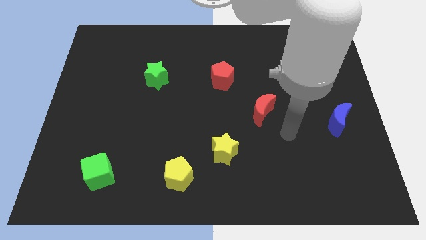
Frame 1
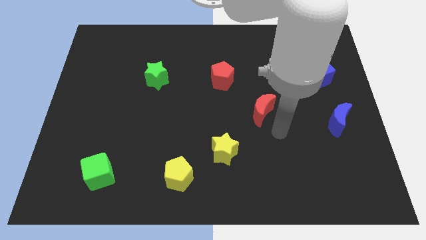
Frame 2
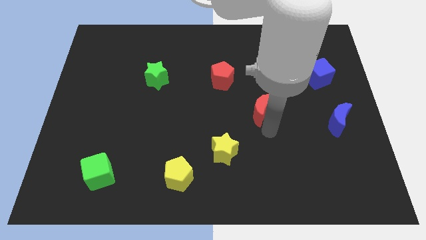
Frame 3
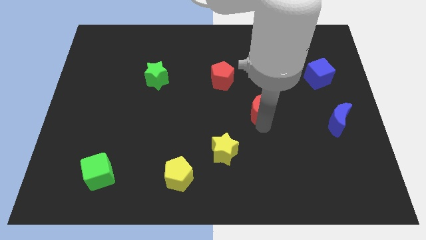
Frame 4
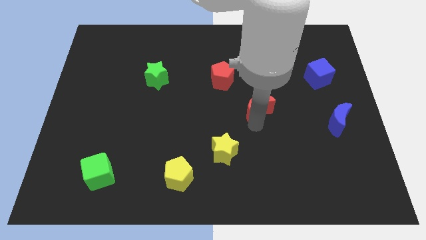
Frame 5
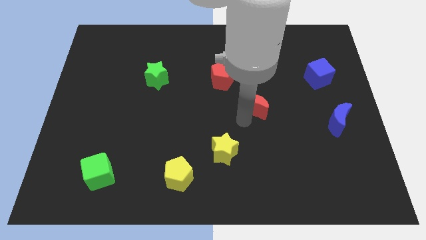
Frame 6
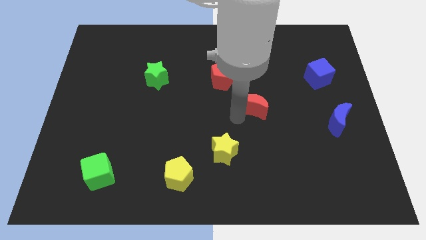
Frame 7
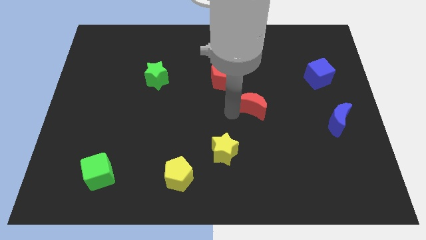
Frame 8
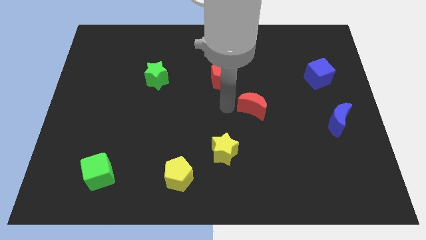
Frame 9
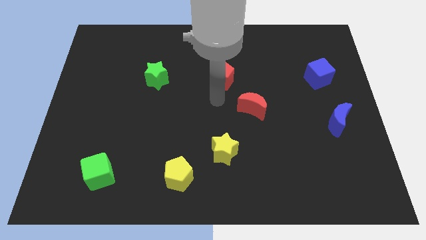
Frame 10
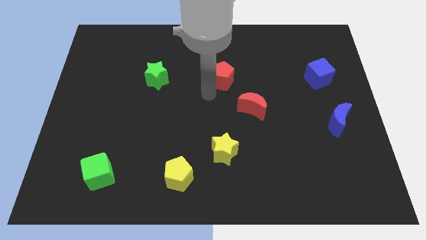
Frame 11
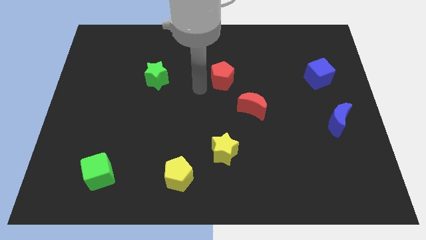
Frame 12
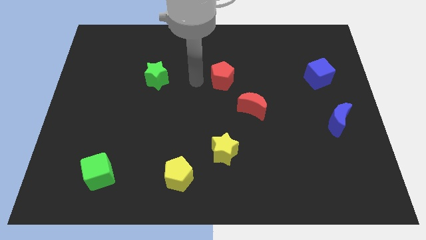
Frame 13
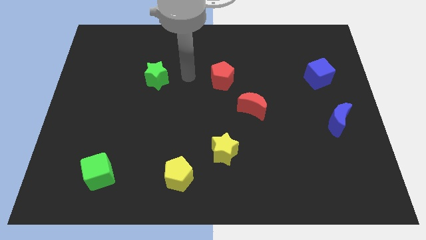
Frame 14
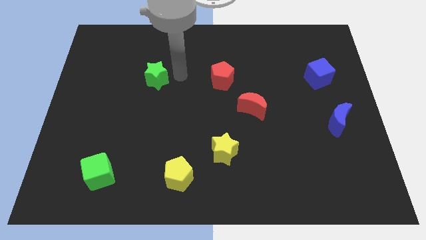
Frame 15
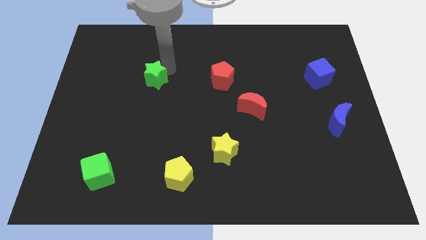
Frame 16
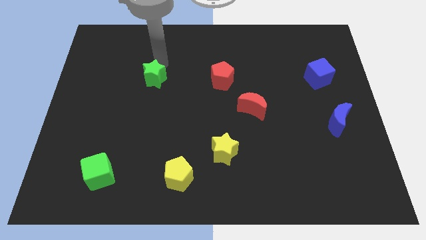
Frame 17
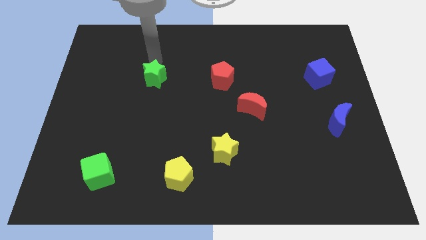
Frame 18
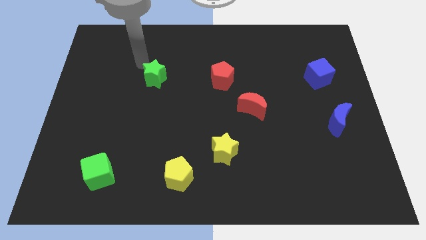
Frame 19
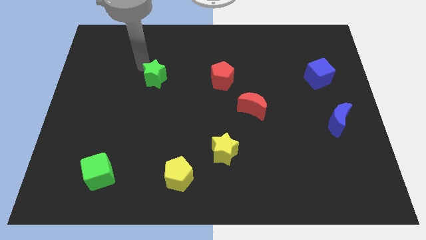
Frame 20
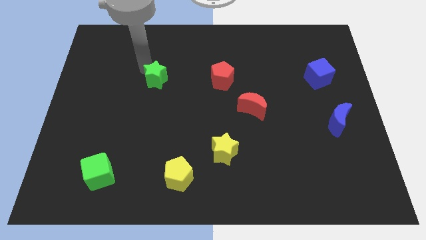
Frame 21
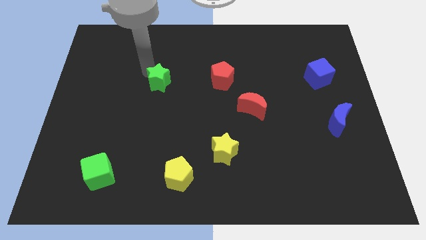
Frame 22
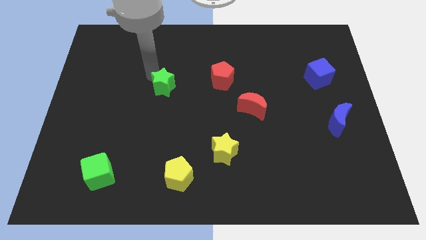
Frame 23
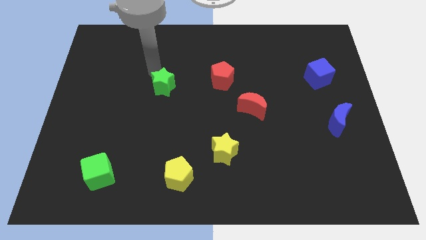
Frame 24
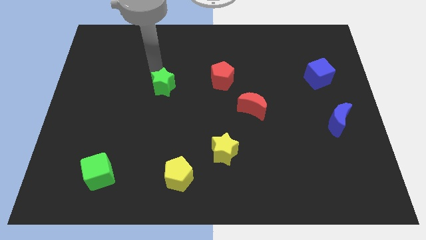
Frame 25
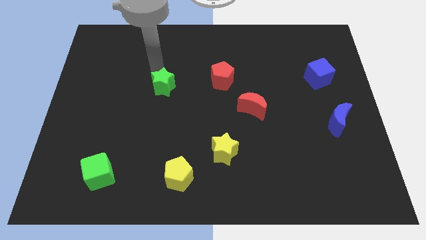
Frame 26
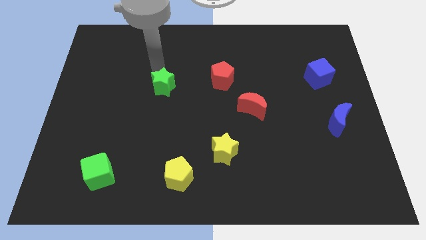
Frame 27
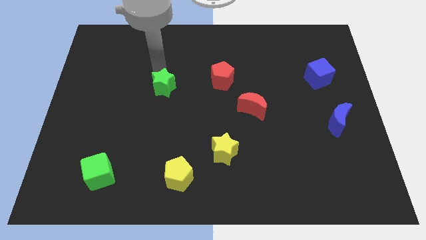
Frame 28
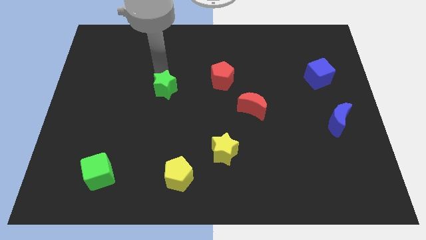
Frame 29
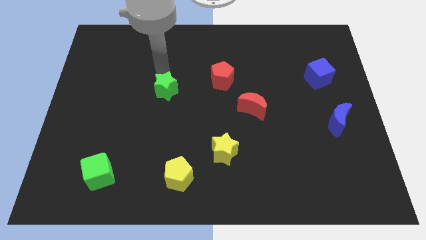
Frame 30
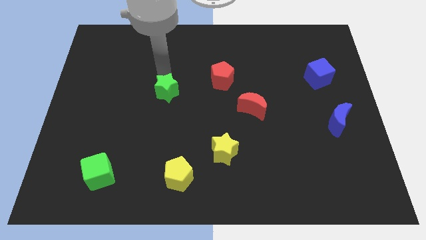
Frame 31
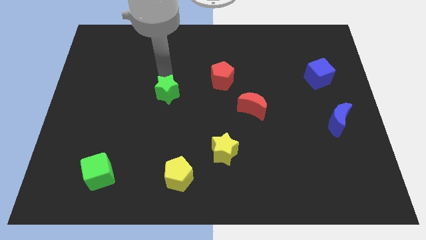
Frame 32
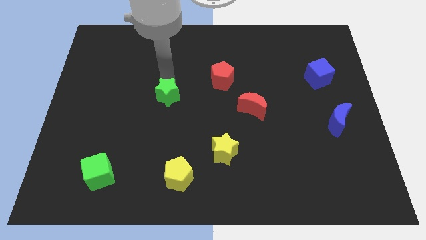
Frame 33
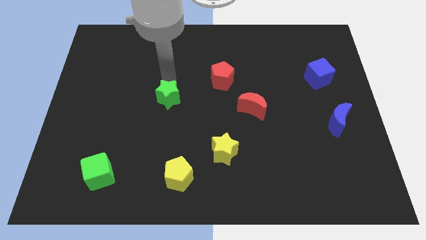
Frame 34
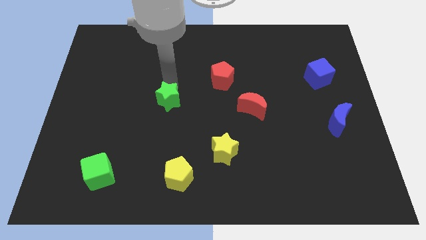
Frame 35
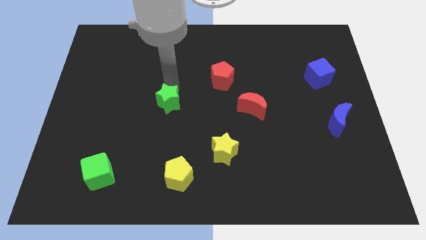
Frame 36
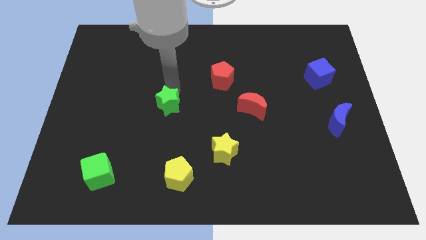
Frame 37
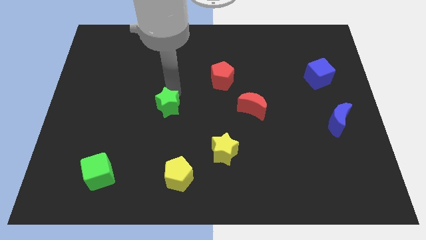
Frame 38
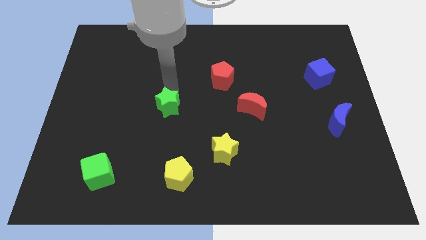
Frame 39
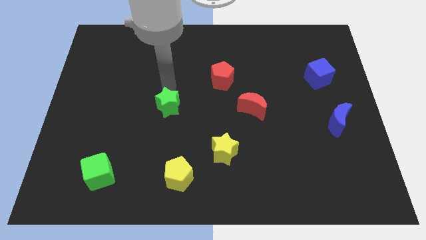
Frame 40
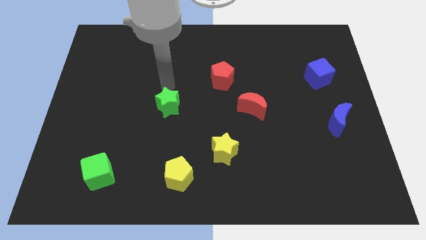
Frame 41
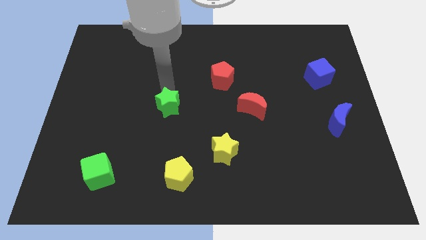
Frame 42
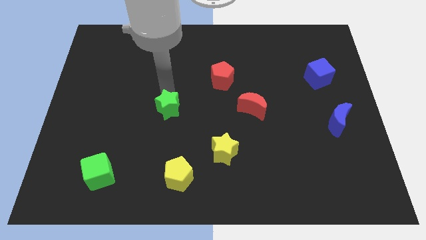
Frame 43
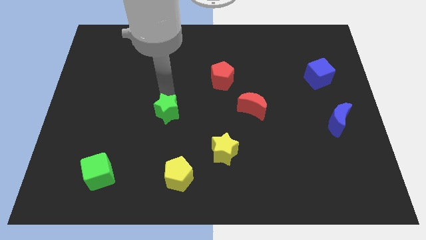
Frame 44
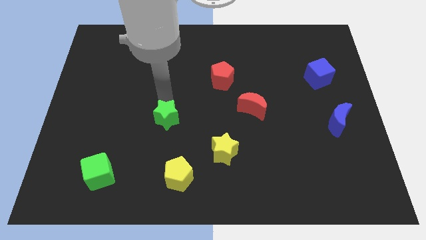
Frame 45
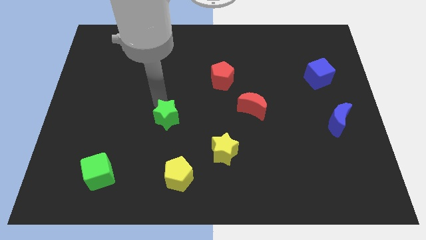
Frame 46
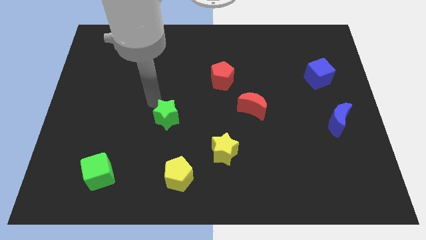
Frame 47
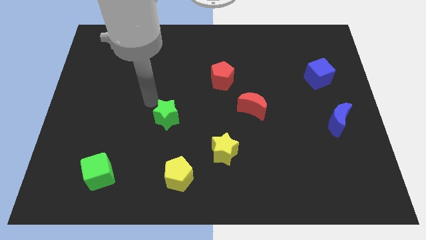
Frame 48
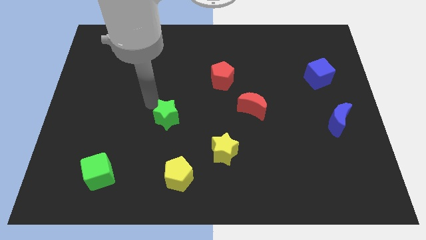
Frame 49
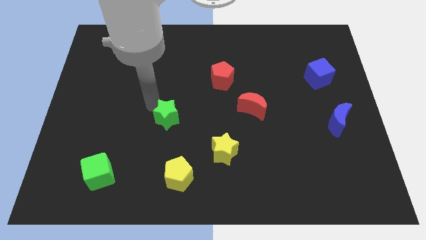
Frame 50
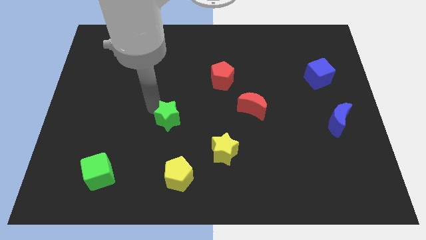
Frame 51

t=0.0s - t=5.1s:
slide the green star to the top of the yellow pentagon

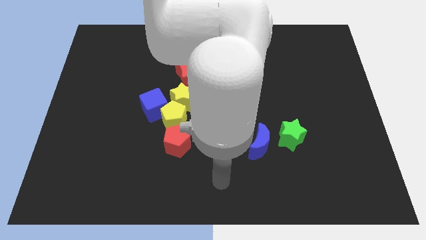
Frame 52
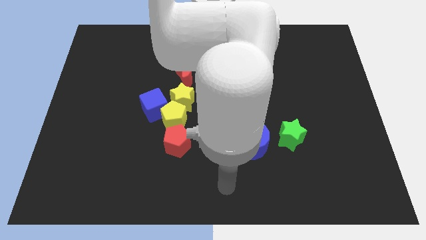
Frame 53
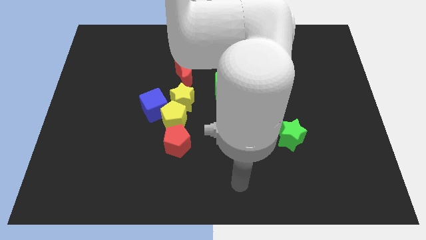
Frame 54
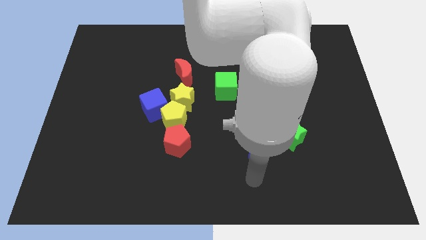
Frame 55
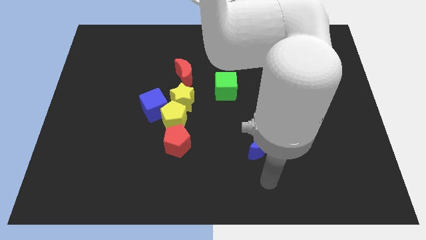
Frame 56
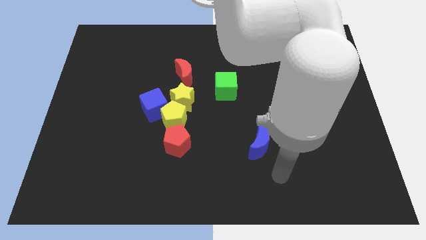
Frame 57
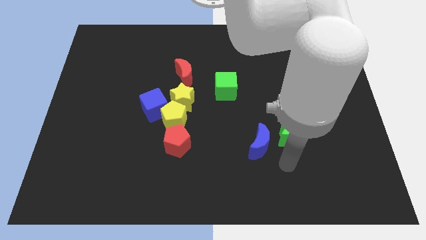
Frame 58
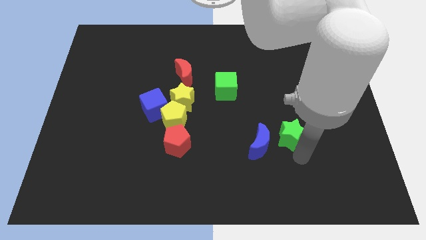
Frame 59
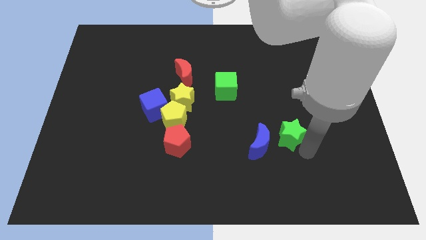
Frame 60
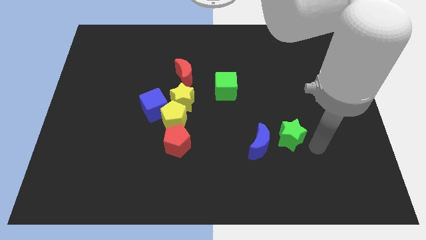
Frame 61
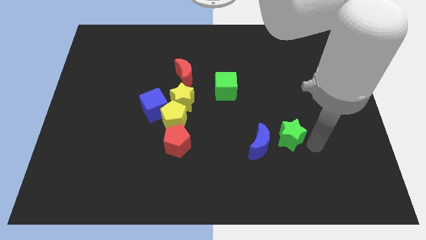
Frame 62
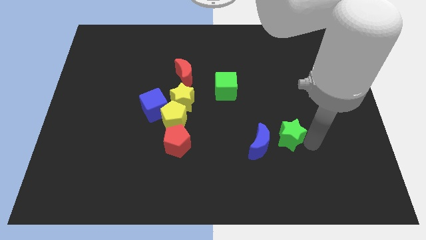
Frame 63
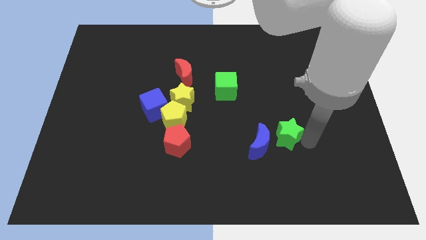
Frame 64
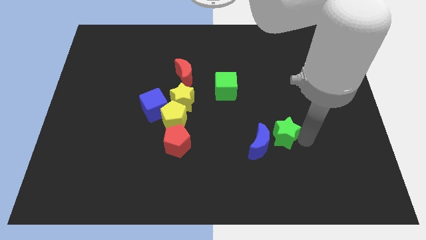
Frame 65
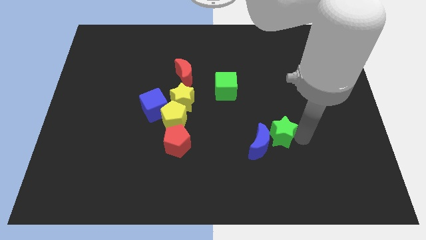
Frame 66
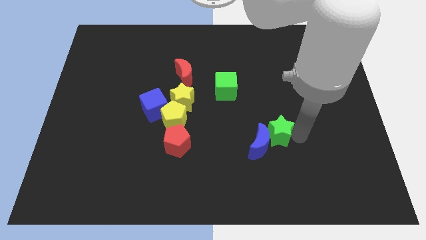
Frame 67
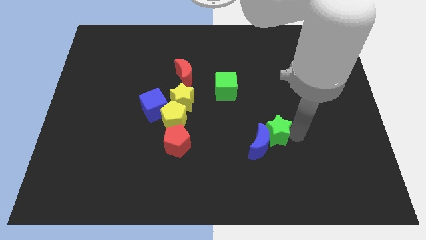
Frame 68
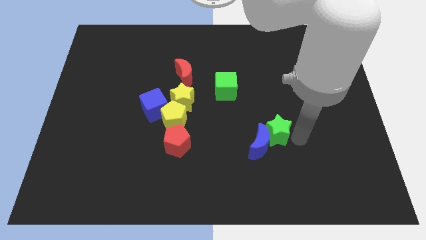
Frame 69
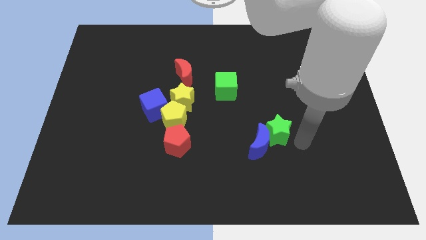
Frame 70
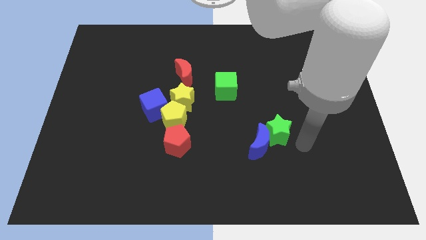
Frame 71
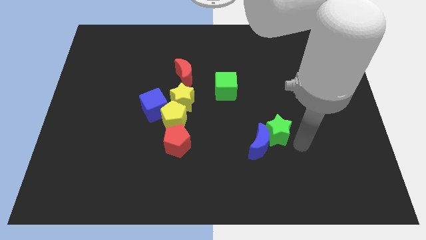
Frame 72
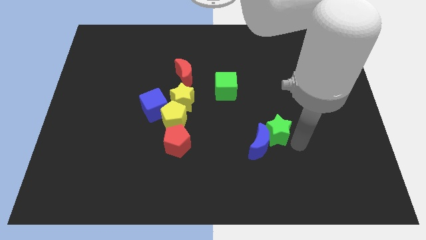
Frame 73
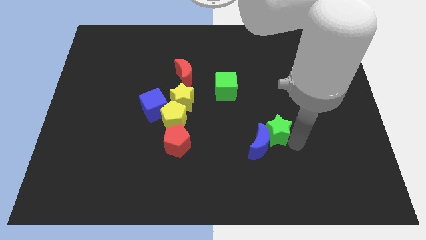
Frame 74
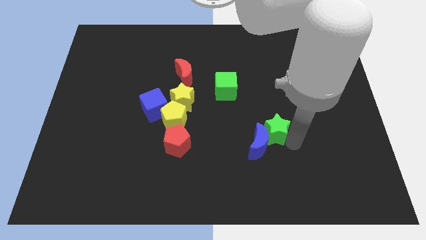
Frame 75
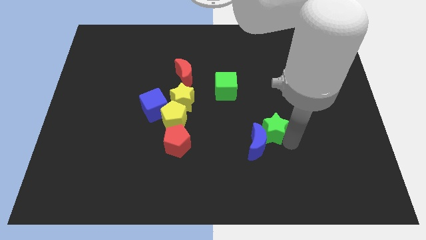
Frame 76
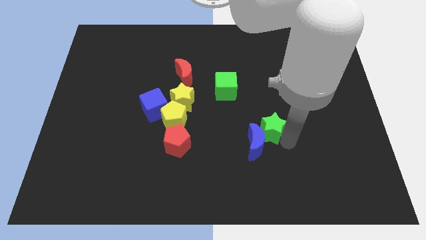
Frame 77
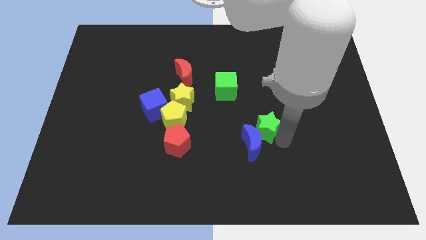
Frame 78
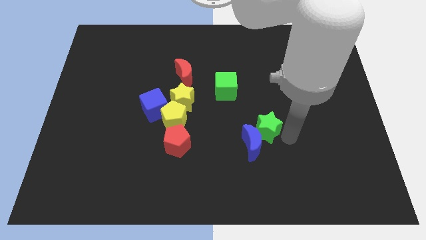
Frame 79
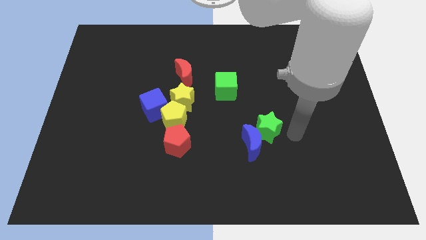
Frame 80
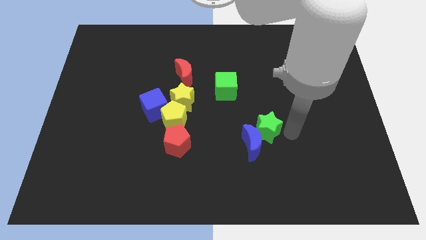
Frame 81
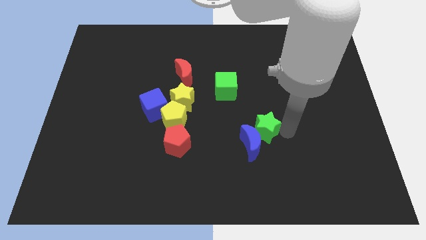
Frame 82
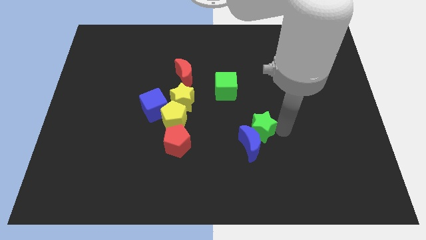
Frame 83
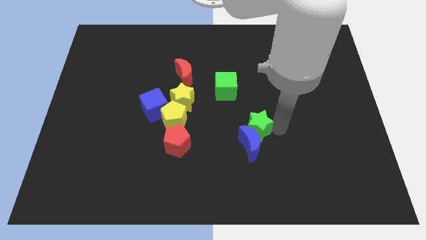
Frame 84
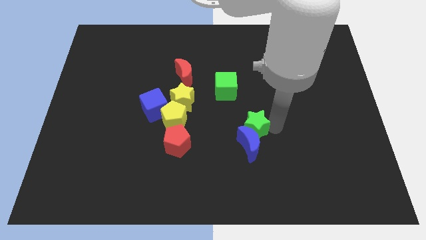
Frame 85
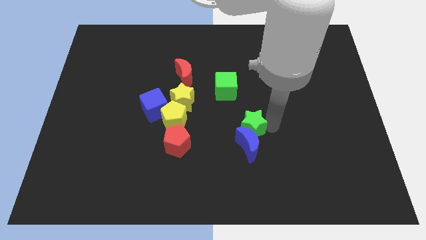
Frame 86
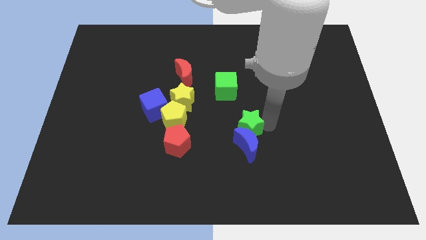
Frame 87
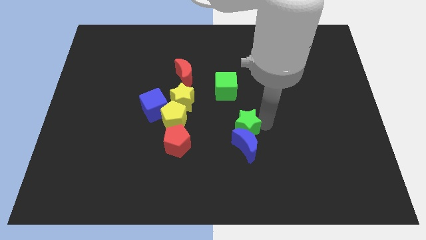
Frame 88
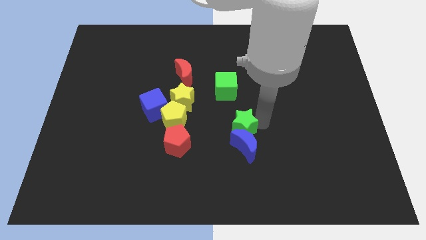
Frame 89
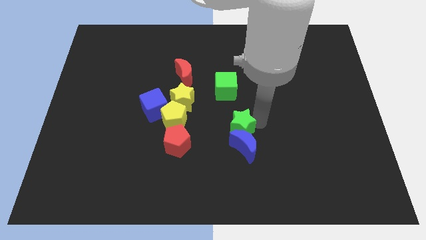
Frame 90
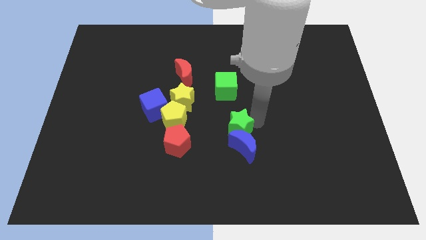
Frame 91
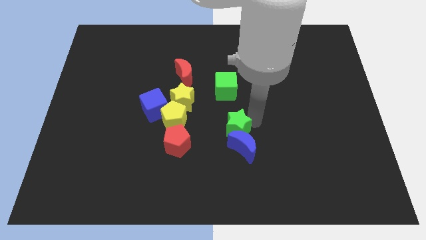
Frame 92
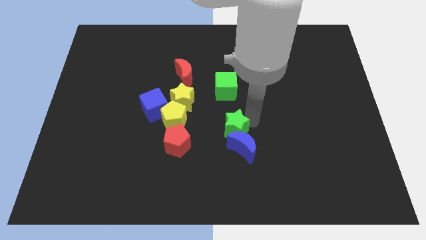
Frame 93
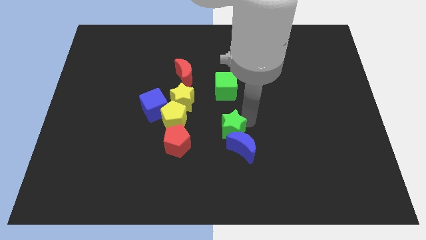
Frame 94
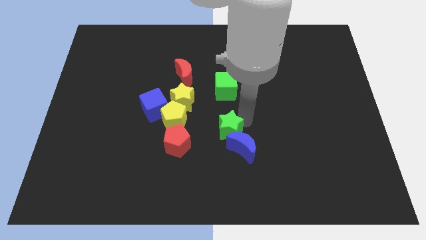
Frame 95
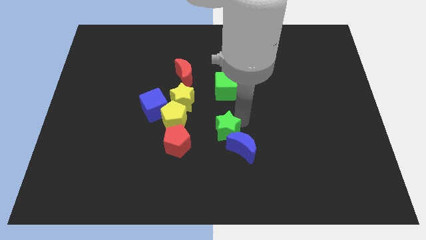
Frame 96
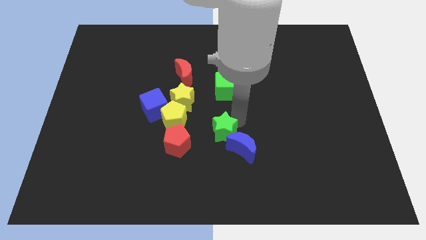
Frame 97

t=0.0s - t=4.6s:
move the green star to the top right side of the red pentagon
